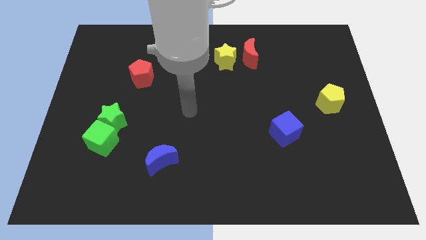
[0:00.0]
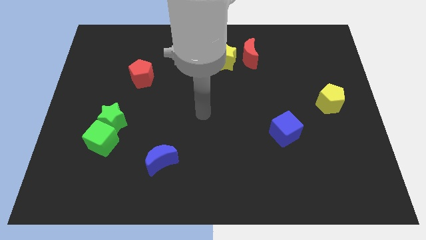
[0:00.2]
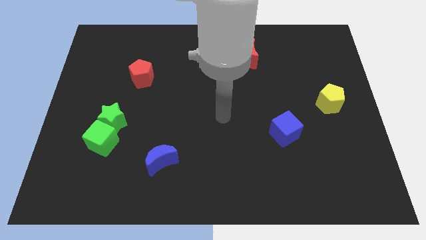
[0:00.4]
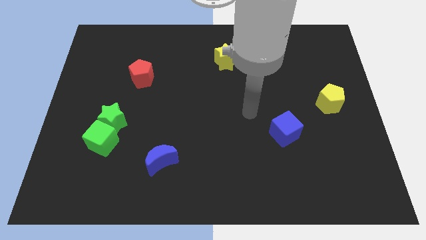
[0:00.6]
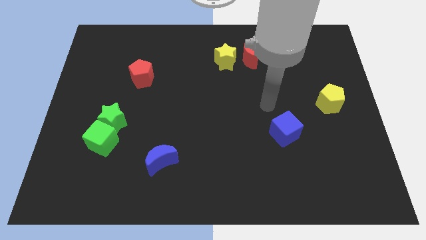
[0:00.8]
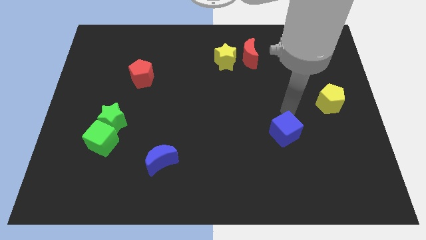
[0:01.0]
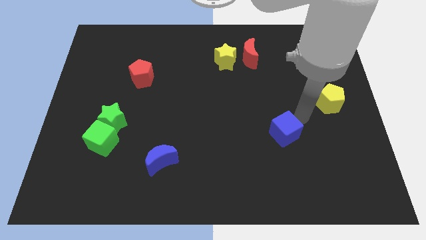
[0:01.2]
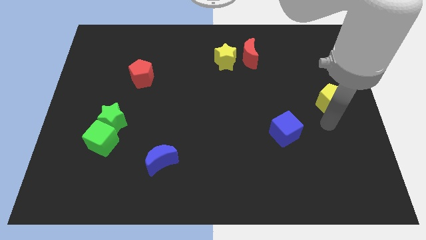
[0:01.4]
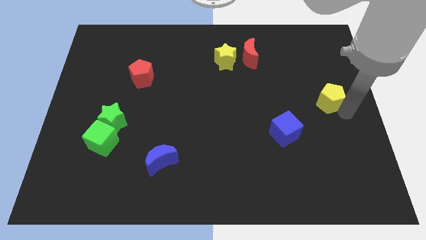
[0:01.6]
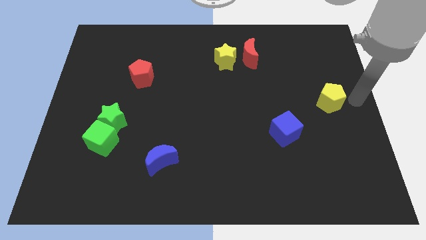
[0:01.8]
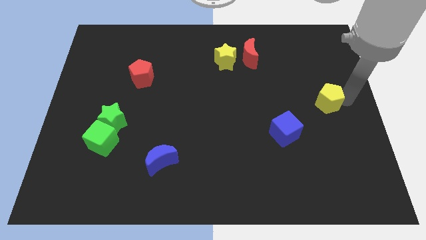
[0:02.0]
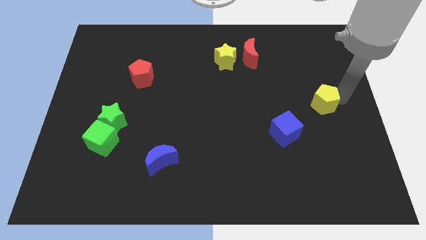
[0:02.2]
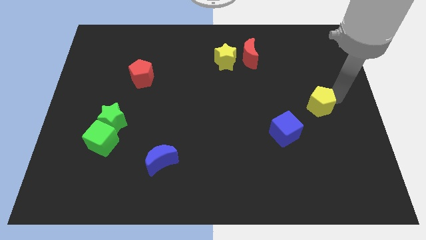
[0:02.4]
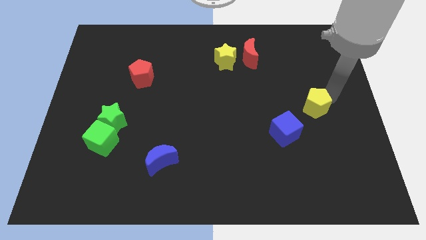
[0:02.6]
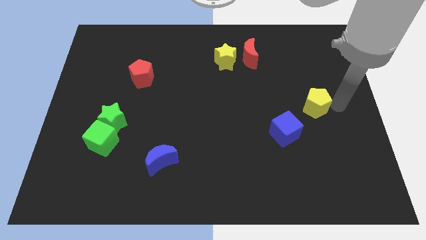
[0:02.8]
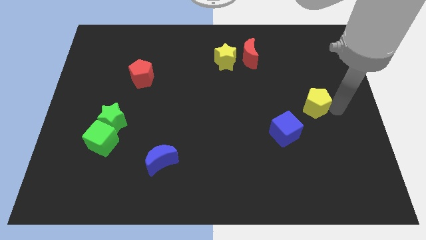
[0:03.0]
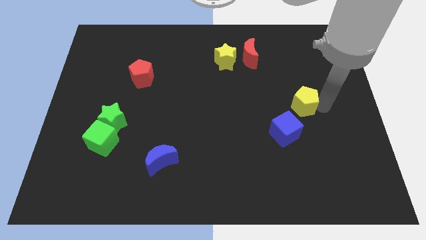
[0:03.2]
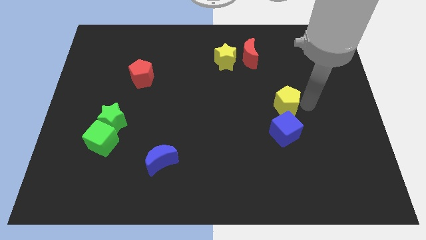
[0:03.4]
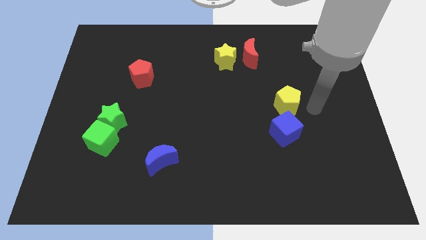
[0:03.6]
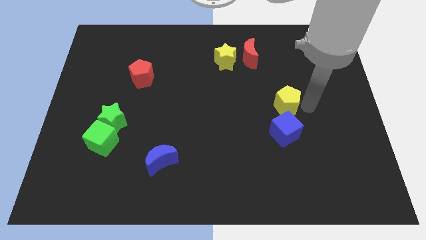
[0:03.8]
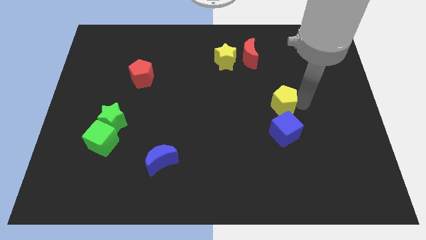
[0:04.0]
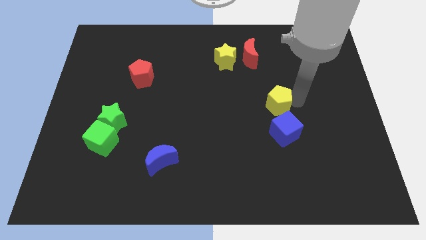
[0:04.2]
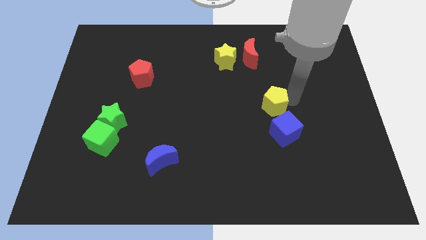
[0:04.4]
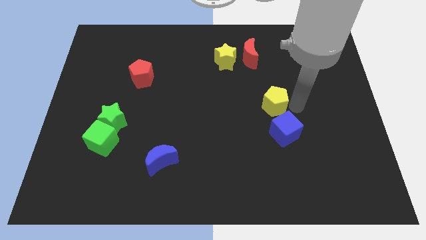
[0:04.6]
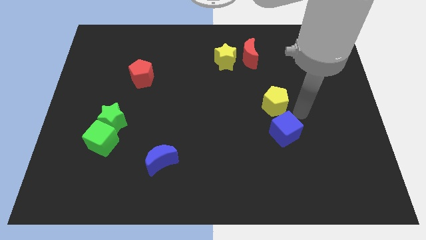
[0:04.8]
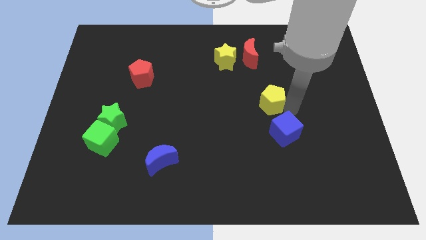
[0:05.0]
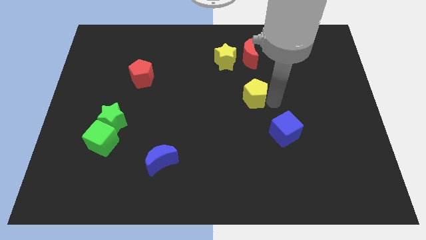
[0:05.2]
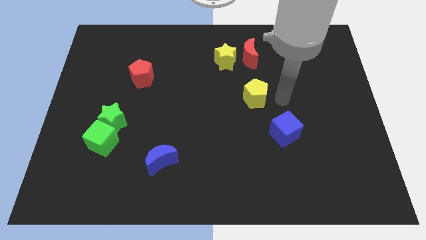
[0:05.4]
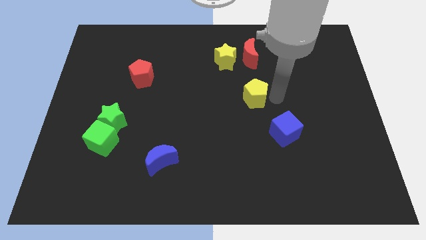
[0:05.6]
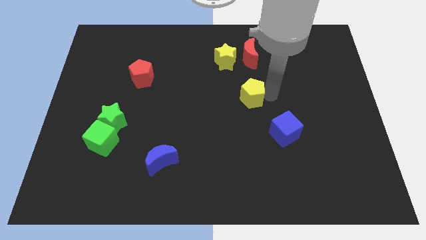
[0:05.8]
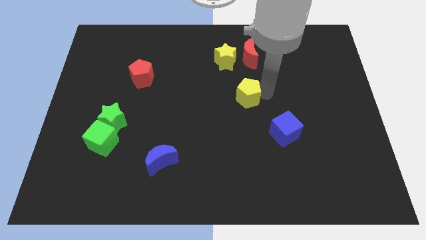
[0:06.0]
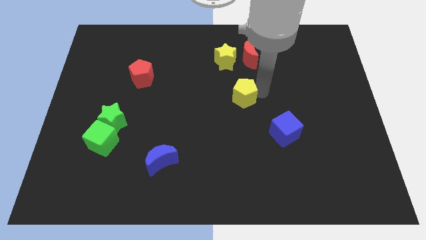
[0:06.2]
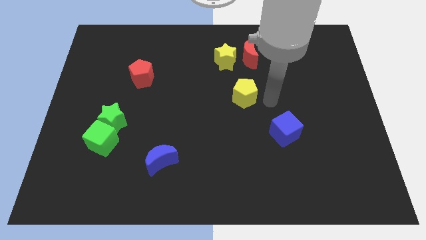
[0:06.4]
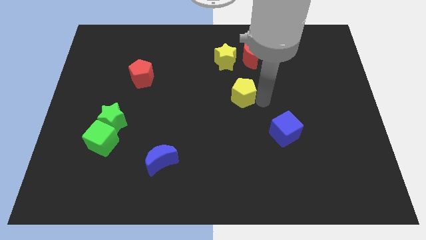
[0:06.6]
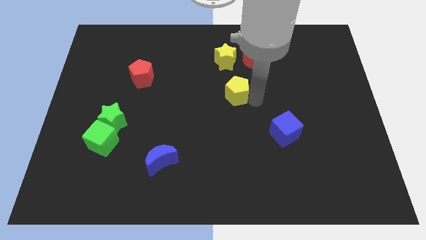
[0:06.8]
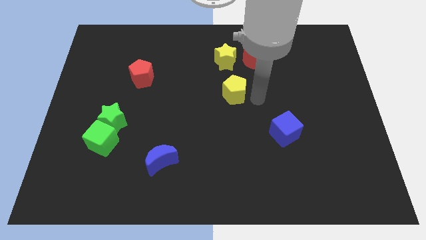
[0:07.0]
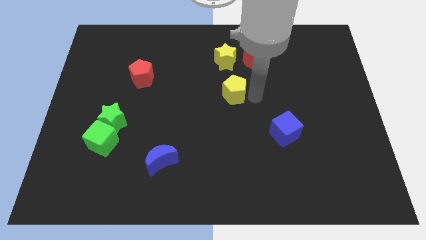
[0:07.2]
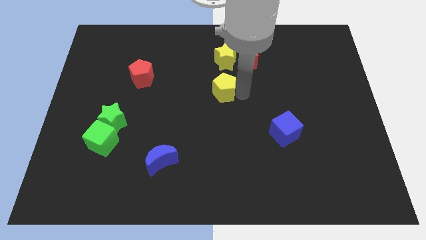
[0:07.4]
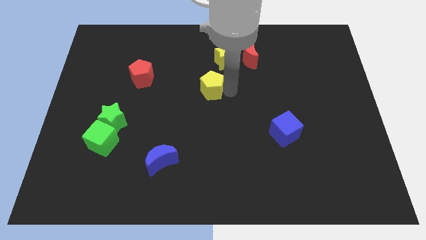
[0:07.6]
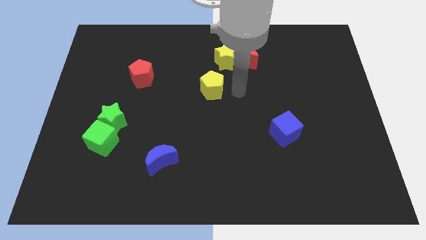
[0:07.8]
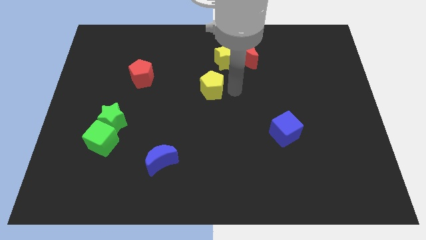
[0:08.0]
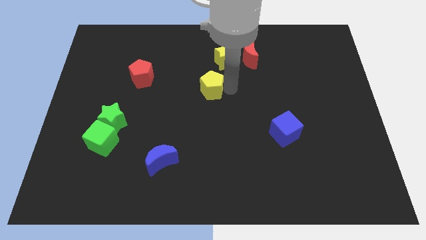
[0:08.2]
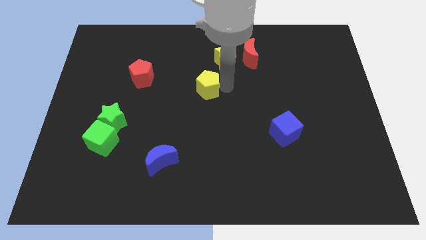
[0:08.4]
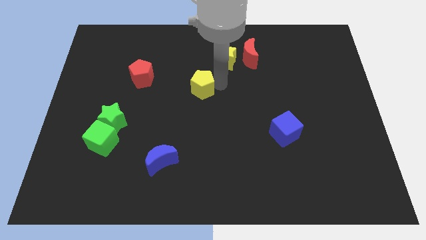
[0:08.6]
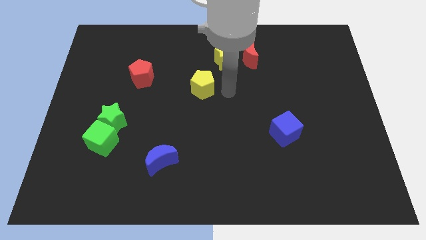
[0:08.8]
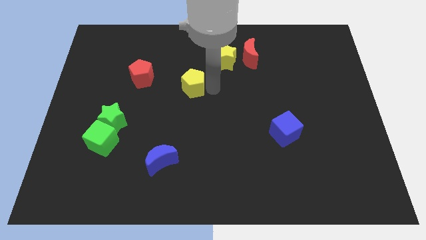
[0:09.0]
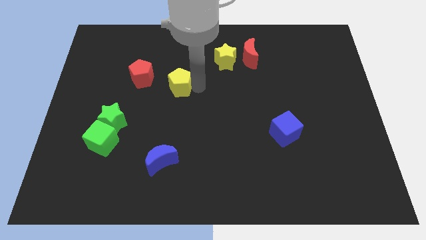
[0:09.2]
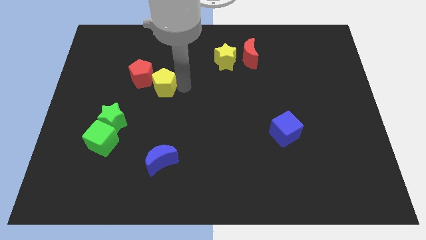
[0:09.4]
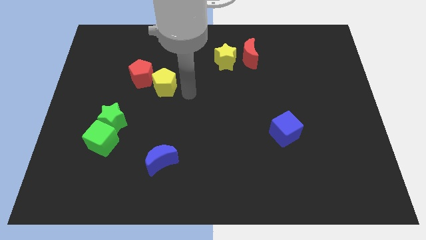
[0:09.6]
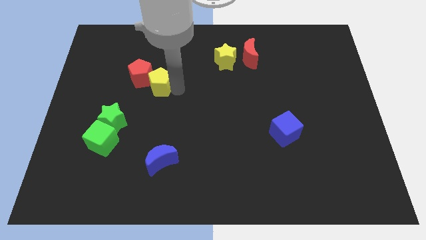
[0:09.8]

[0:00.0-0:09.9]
move the yellow pentagon towards the red pentagon

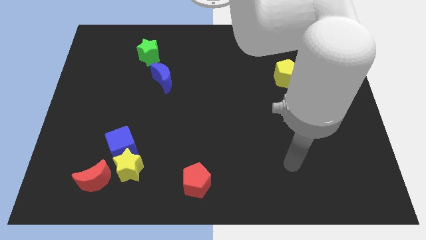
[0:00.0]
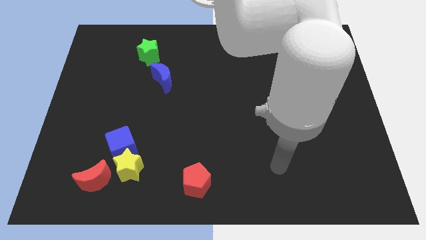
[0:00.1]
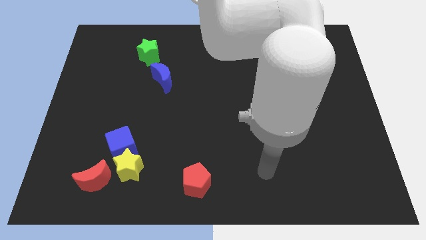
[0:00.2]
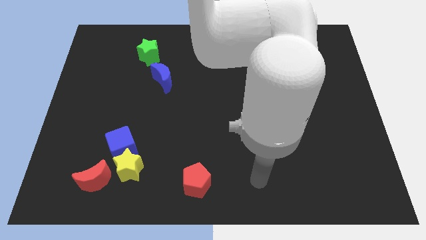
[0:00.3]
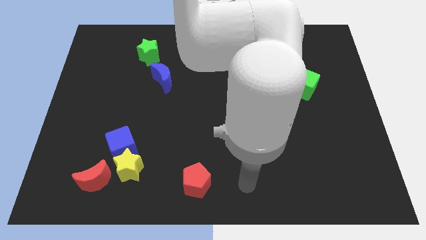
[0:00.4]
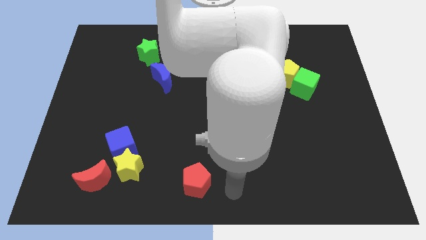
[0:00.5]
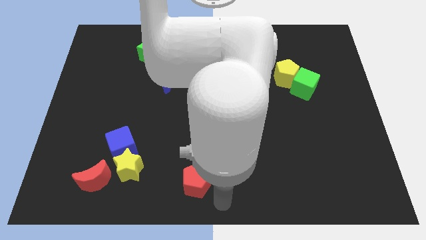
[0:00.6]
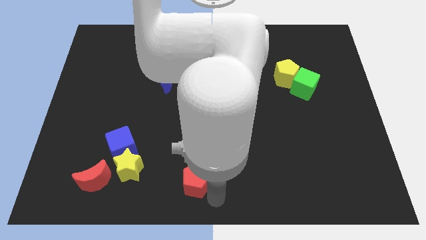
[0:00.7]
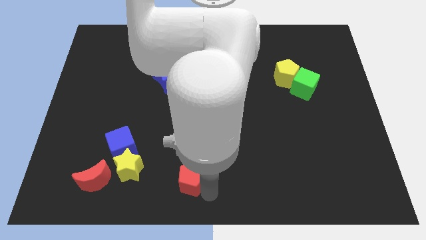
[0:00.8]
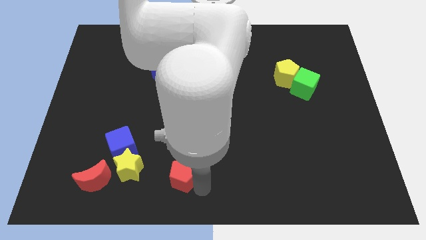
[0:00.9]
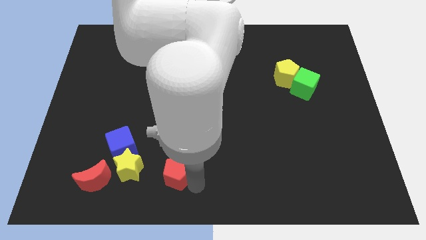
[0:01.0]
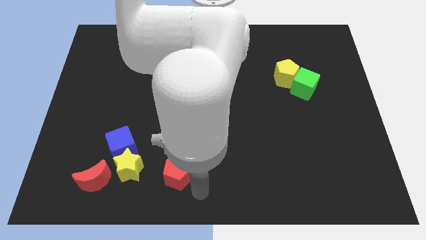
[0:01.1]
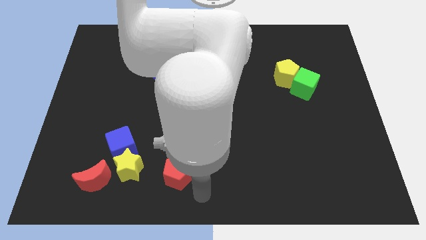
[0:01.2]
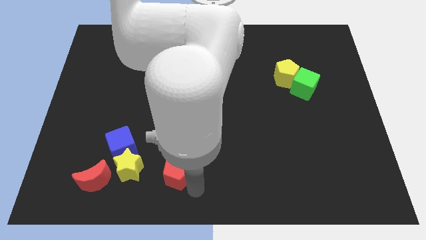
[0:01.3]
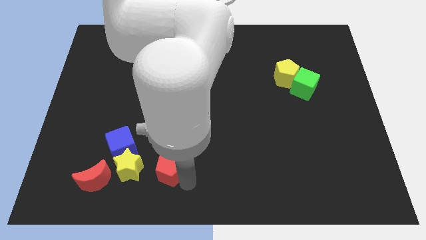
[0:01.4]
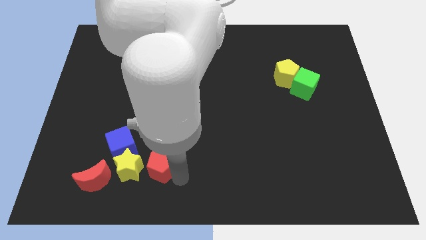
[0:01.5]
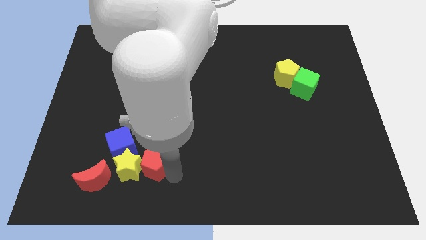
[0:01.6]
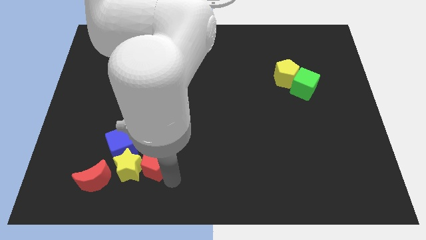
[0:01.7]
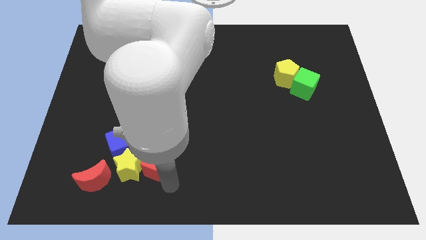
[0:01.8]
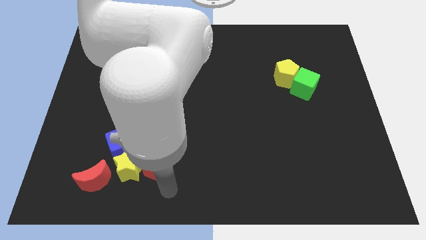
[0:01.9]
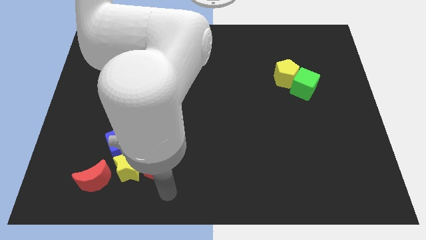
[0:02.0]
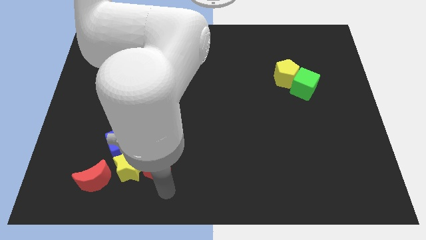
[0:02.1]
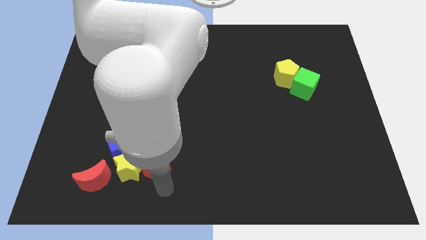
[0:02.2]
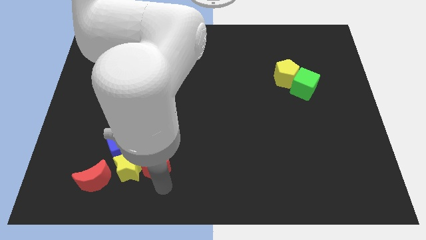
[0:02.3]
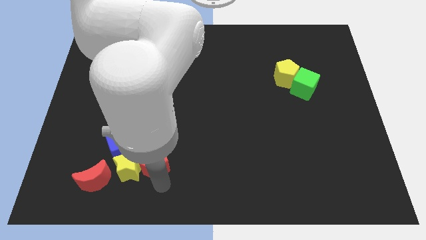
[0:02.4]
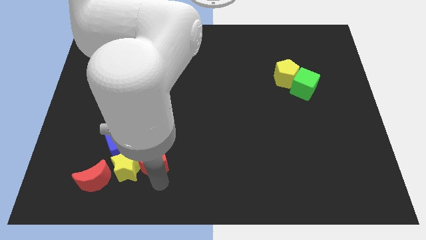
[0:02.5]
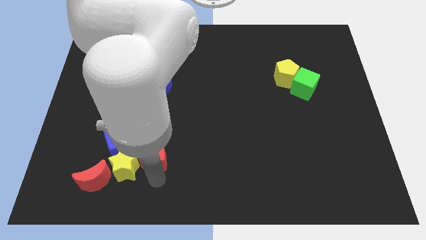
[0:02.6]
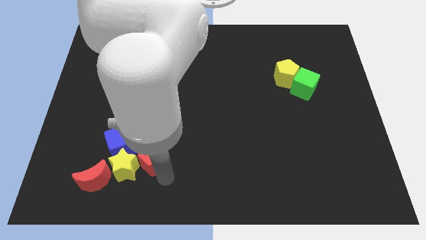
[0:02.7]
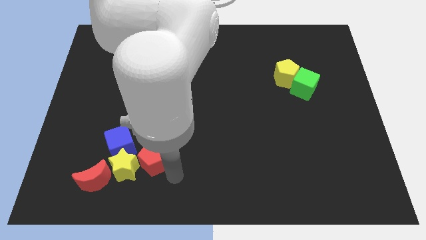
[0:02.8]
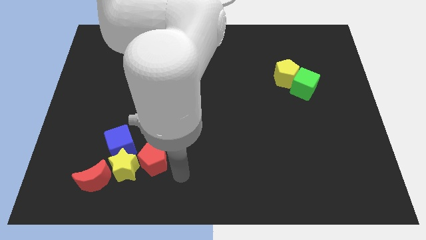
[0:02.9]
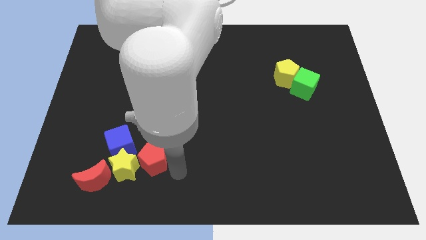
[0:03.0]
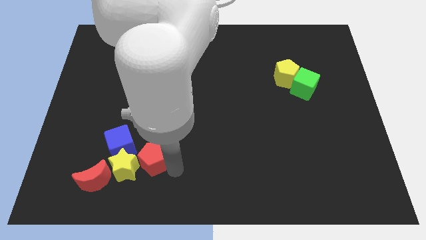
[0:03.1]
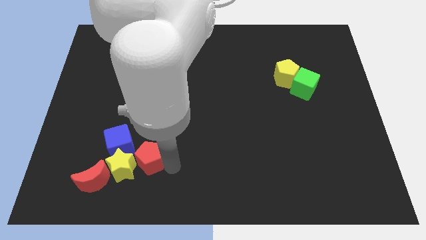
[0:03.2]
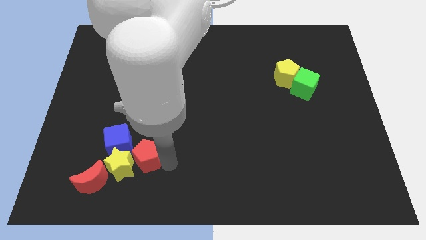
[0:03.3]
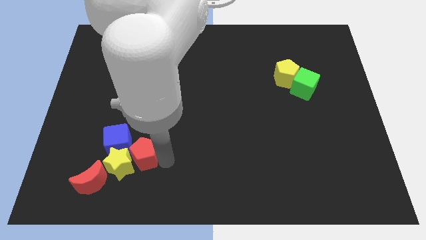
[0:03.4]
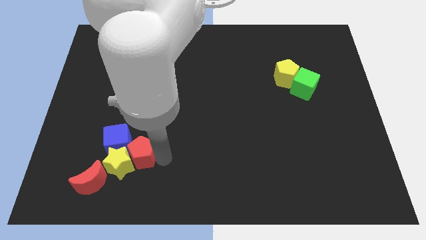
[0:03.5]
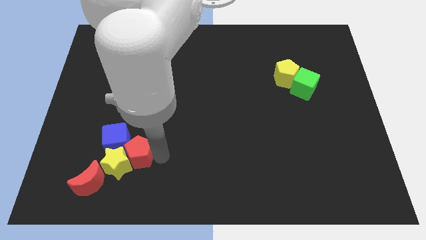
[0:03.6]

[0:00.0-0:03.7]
slide the red pentagon towards the blue cube
